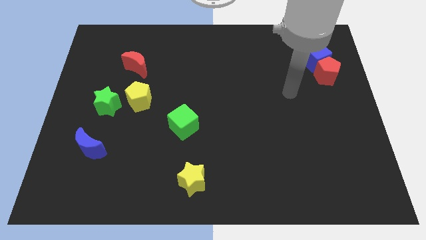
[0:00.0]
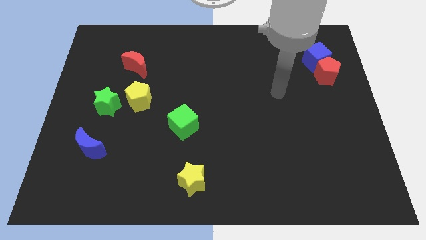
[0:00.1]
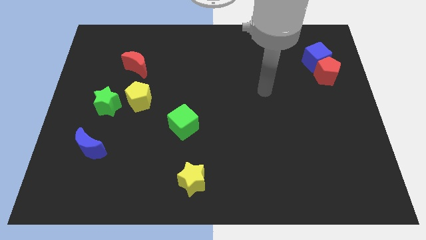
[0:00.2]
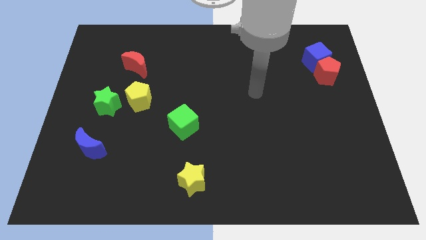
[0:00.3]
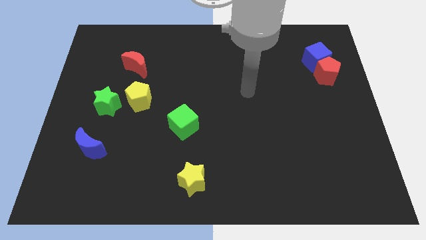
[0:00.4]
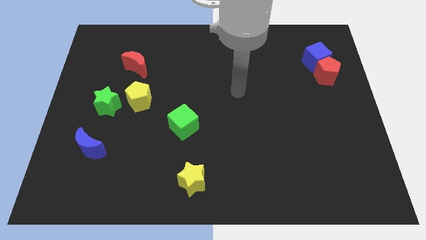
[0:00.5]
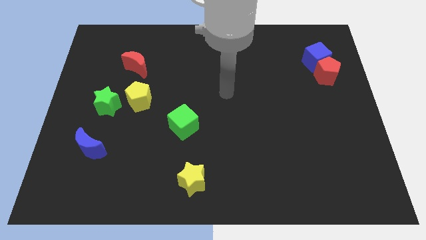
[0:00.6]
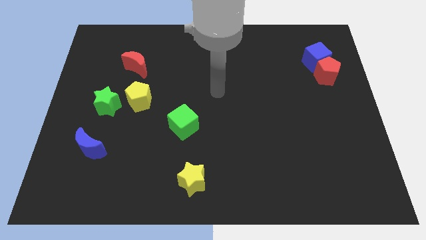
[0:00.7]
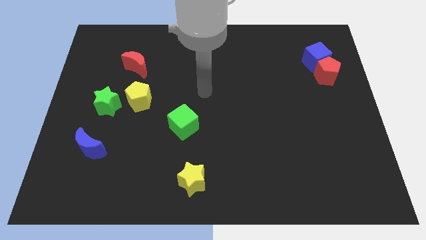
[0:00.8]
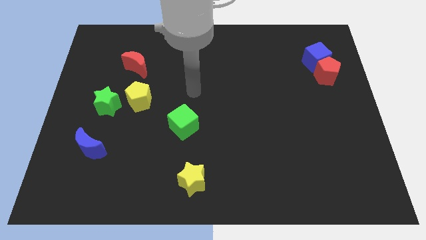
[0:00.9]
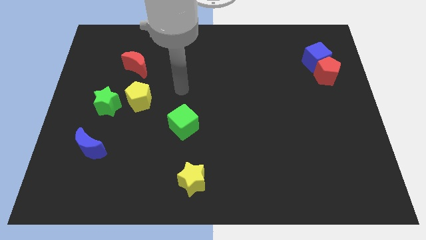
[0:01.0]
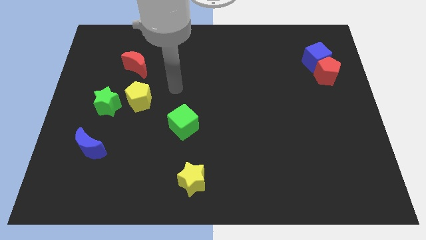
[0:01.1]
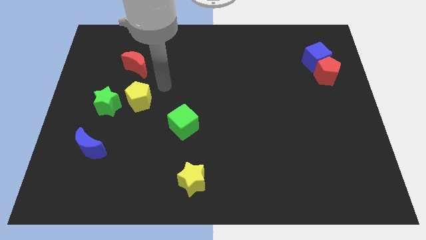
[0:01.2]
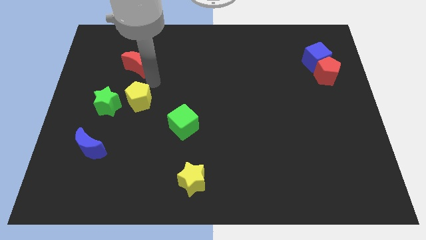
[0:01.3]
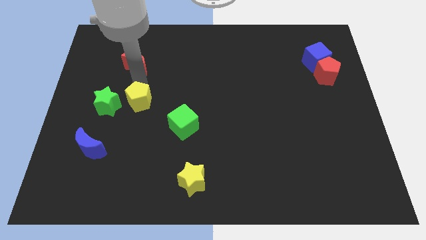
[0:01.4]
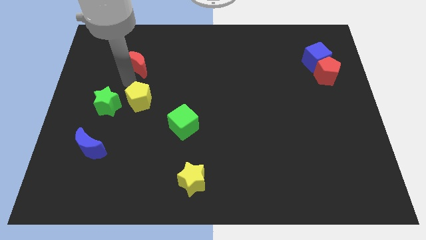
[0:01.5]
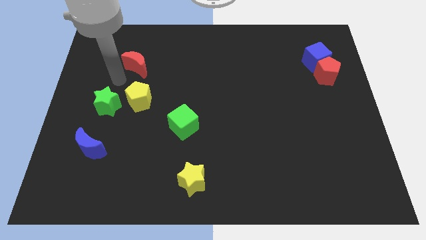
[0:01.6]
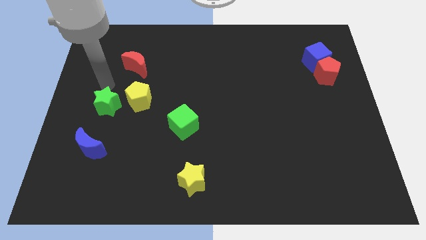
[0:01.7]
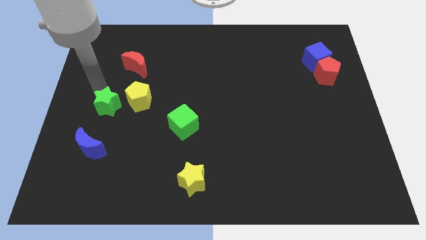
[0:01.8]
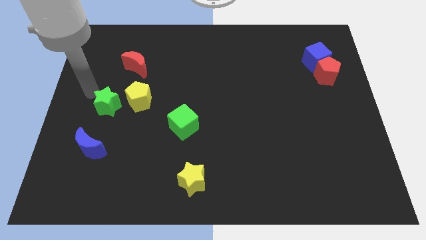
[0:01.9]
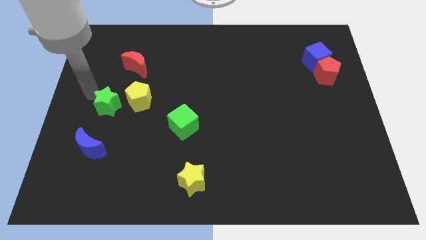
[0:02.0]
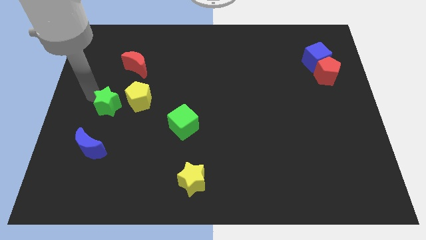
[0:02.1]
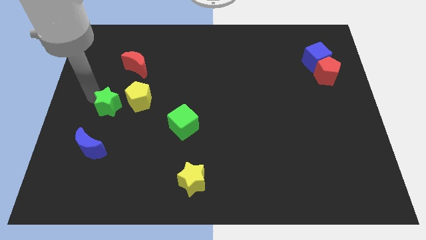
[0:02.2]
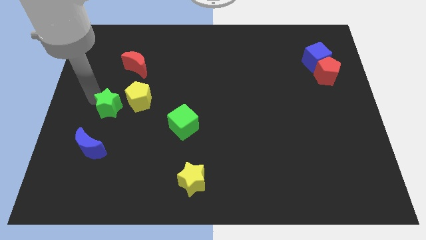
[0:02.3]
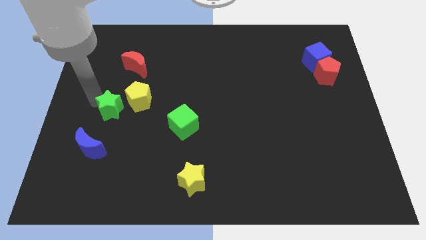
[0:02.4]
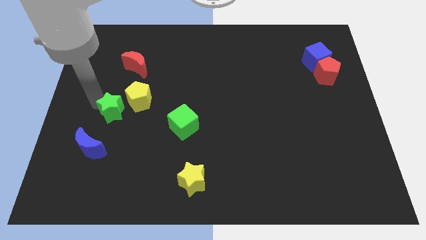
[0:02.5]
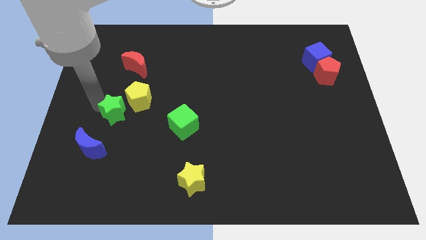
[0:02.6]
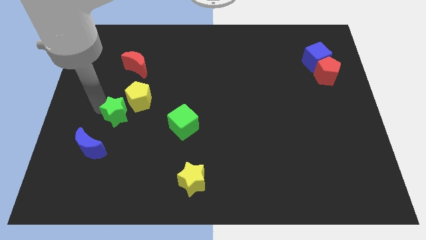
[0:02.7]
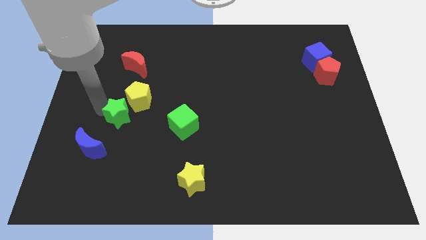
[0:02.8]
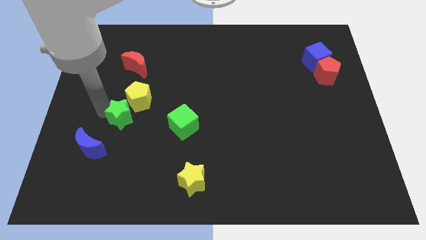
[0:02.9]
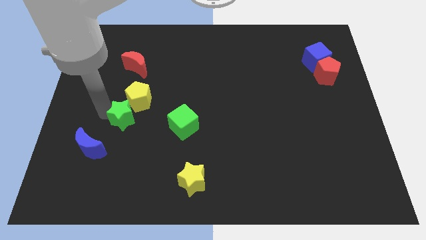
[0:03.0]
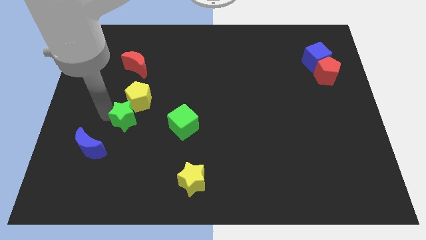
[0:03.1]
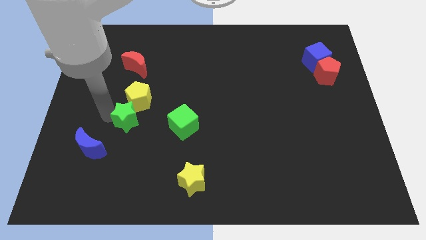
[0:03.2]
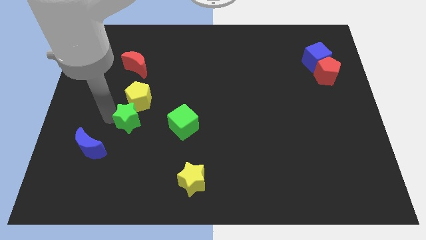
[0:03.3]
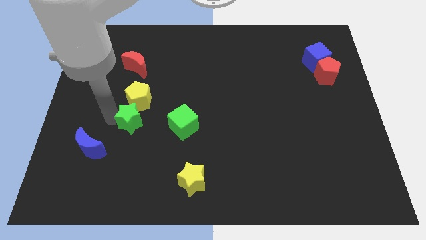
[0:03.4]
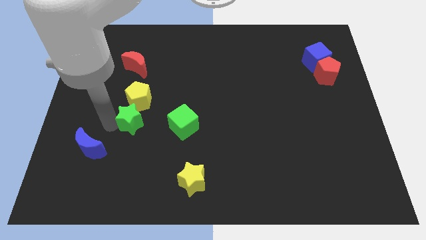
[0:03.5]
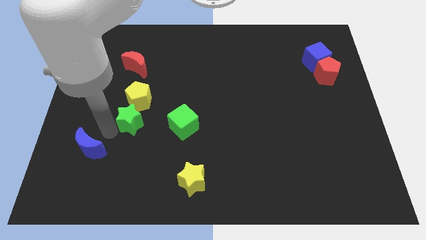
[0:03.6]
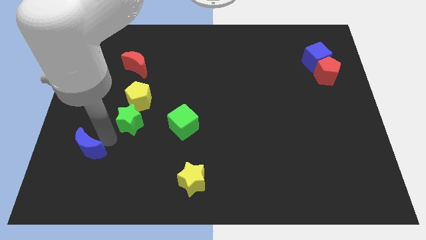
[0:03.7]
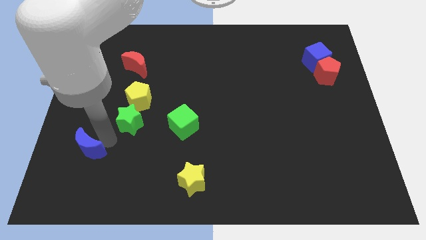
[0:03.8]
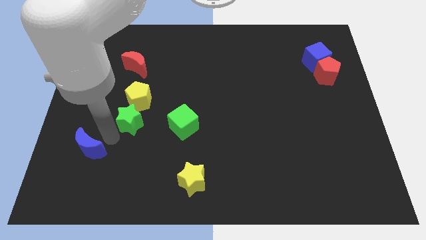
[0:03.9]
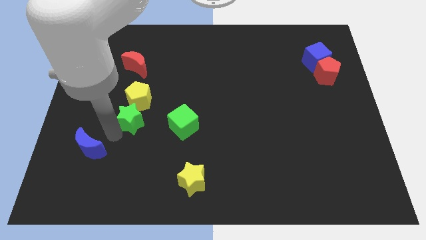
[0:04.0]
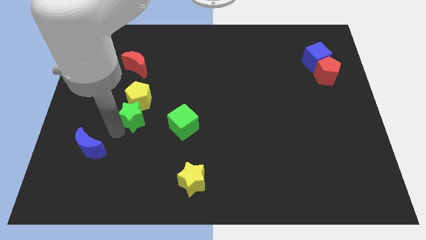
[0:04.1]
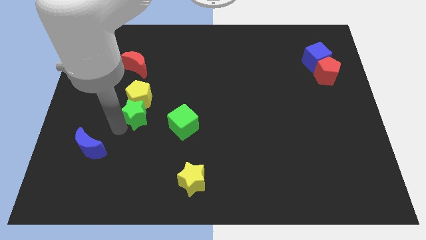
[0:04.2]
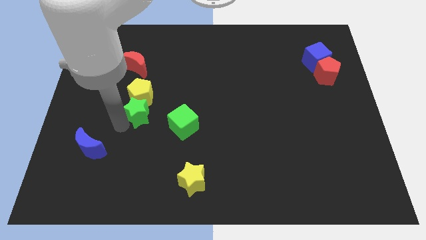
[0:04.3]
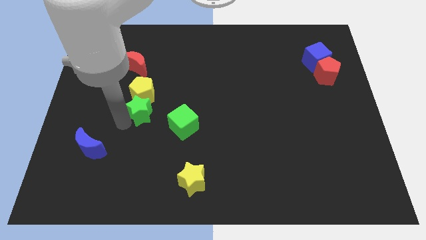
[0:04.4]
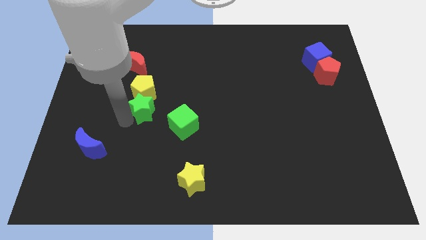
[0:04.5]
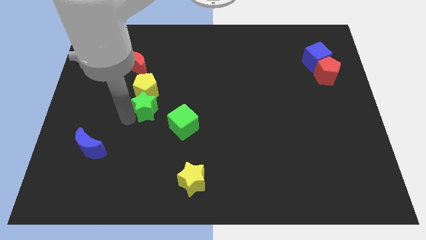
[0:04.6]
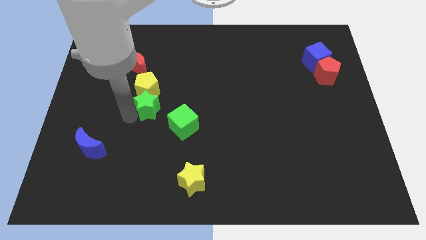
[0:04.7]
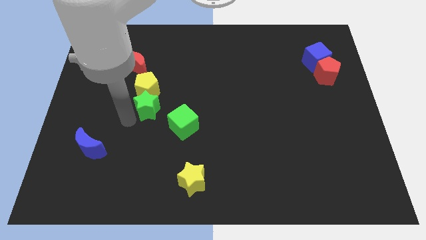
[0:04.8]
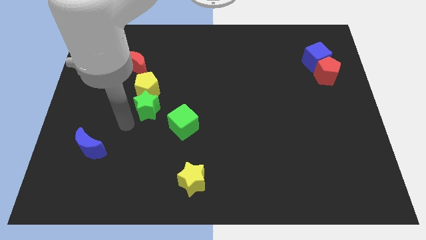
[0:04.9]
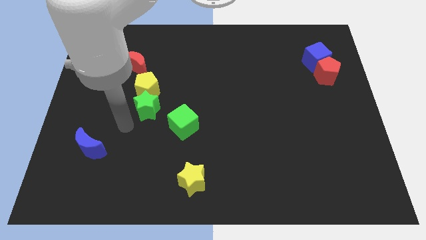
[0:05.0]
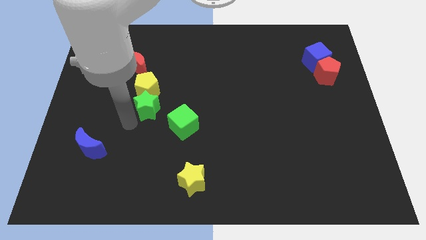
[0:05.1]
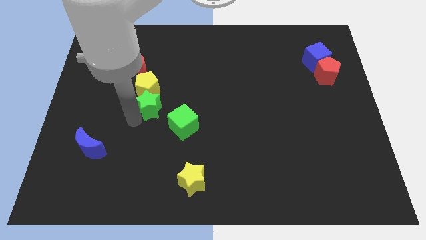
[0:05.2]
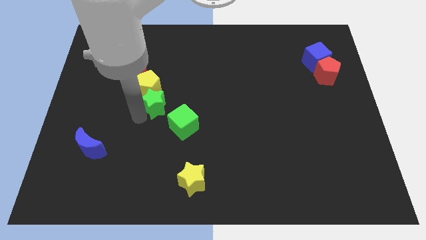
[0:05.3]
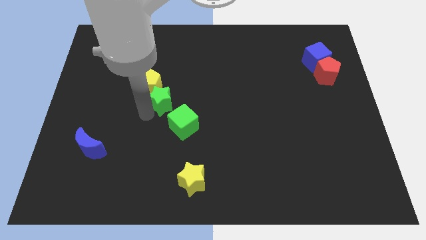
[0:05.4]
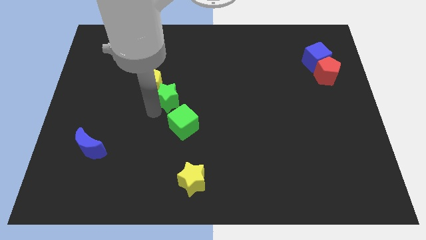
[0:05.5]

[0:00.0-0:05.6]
push the green star upwards and right a little

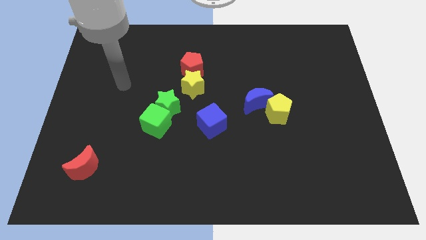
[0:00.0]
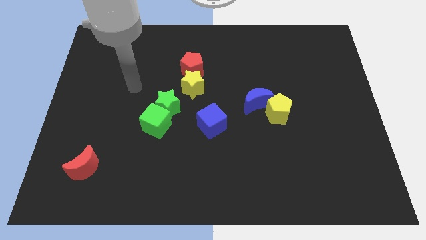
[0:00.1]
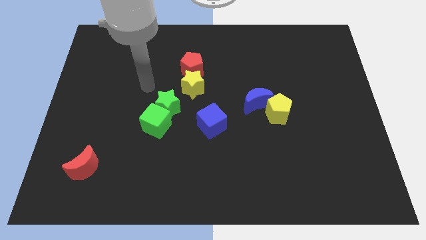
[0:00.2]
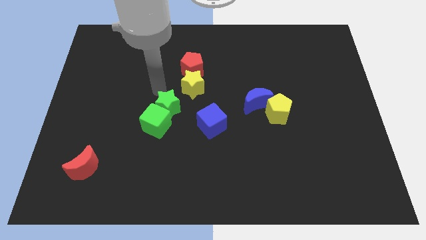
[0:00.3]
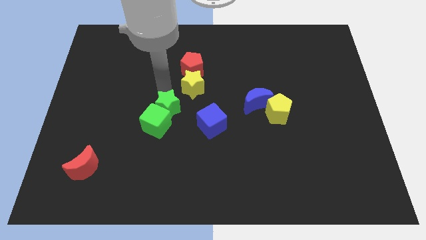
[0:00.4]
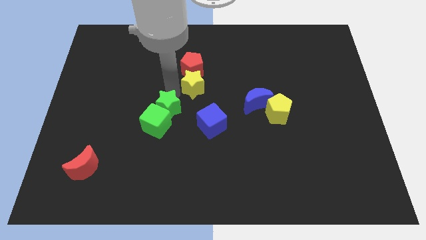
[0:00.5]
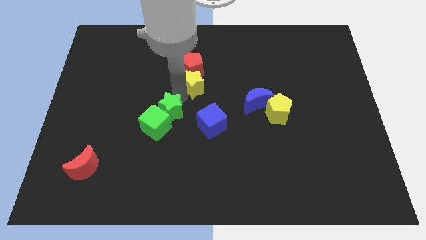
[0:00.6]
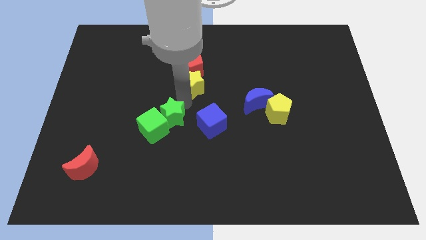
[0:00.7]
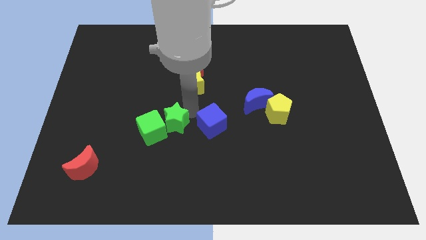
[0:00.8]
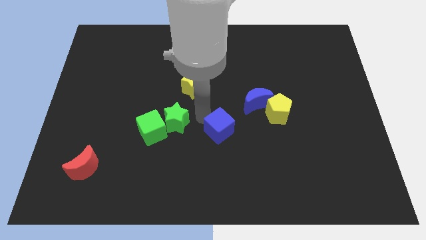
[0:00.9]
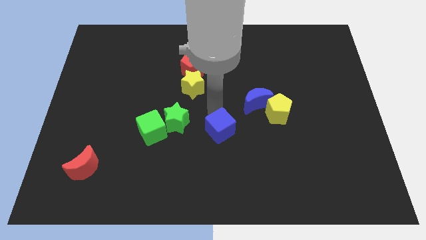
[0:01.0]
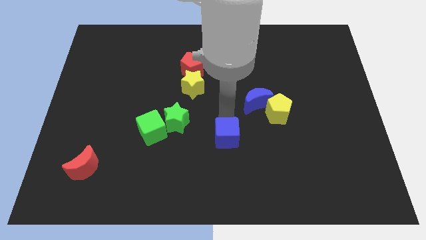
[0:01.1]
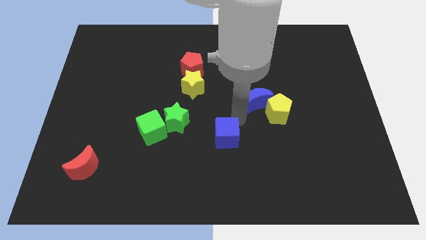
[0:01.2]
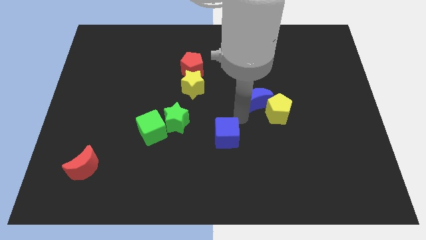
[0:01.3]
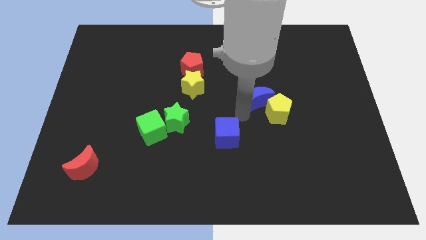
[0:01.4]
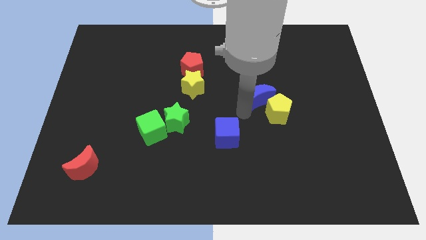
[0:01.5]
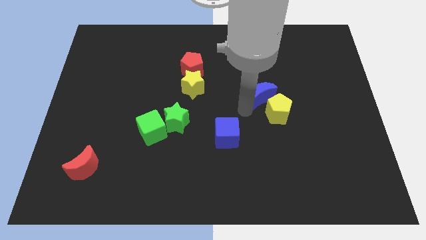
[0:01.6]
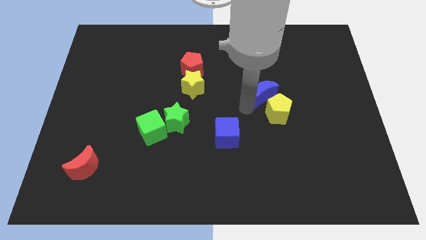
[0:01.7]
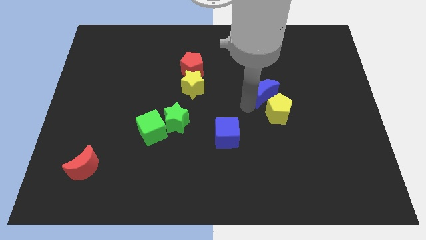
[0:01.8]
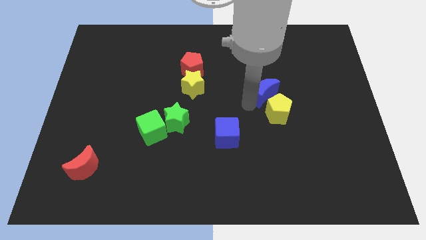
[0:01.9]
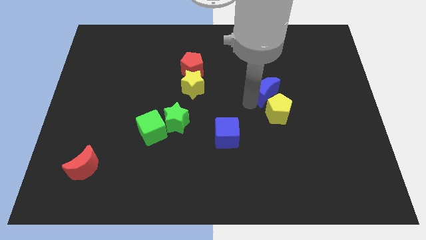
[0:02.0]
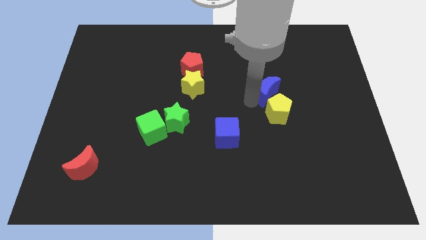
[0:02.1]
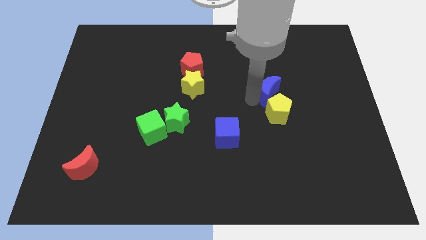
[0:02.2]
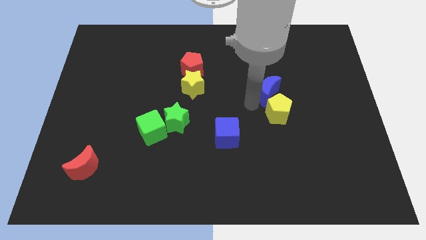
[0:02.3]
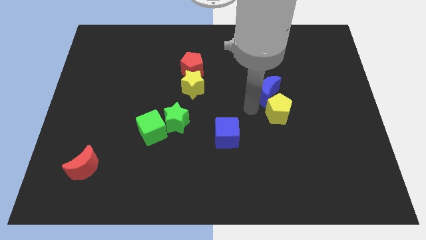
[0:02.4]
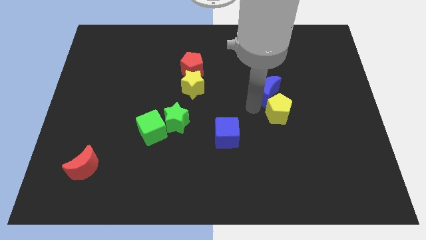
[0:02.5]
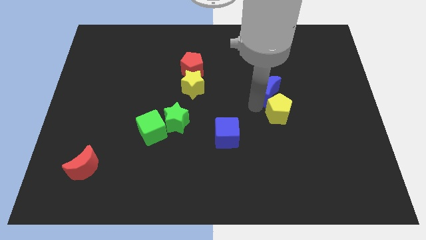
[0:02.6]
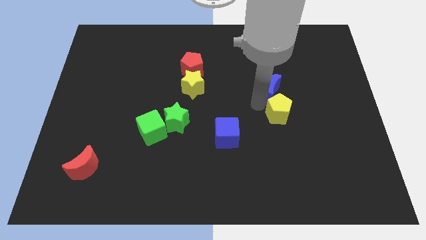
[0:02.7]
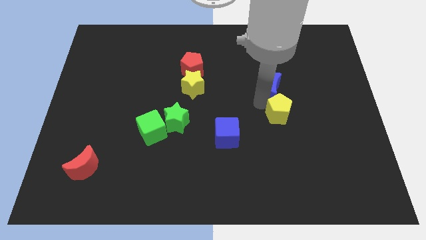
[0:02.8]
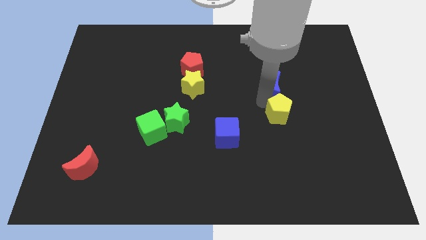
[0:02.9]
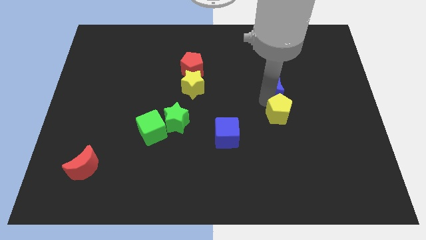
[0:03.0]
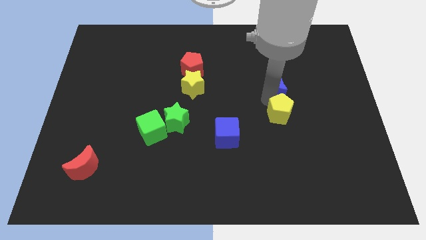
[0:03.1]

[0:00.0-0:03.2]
push the blue moon a bit up and then right
